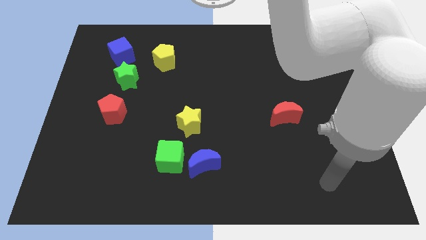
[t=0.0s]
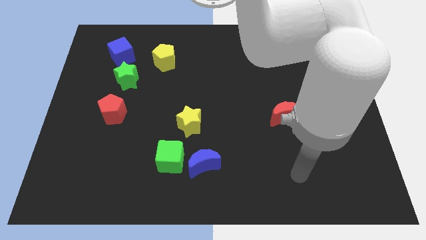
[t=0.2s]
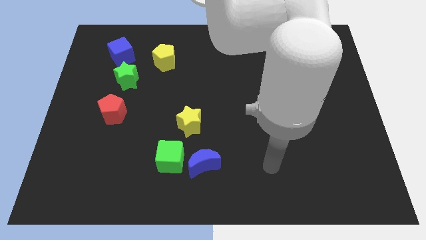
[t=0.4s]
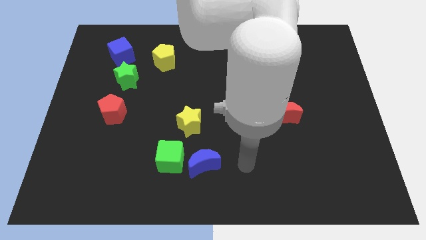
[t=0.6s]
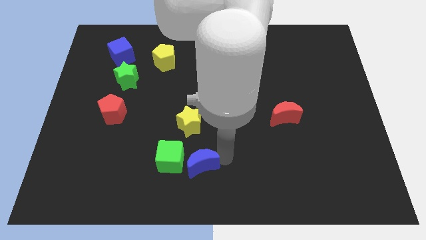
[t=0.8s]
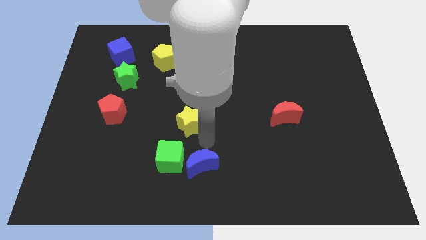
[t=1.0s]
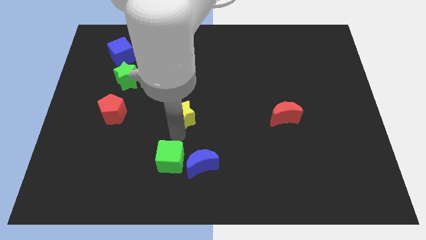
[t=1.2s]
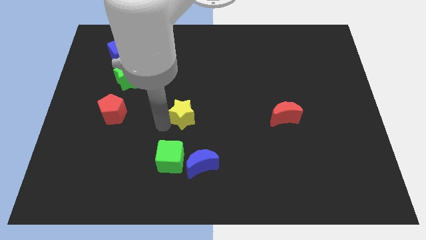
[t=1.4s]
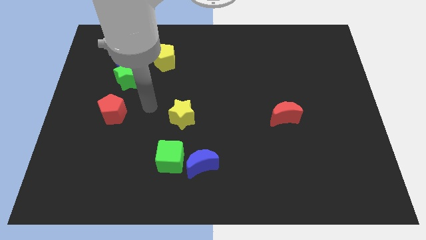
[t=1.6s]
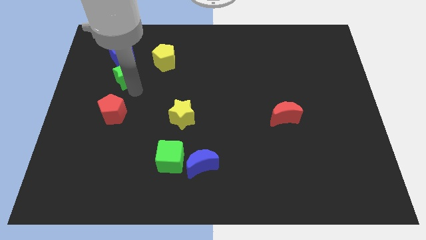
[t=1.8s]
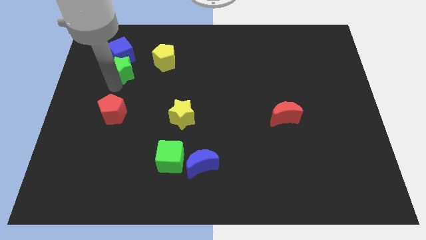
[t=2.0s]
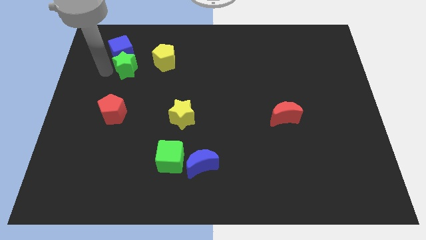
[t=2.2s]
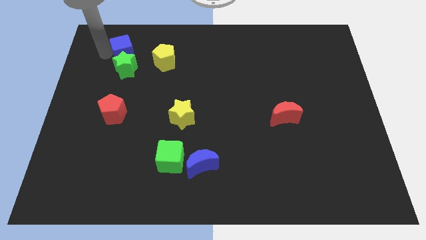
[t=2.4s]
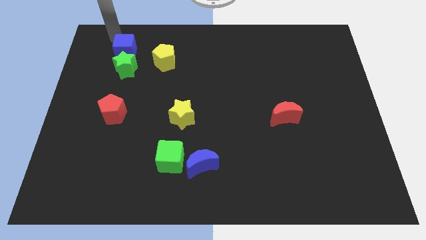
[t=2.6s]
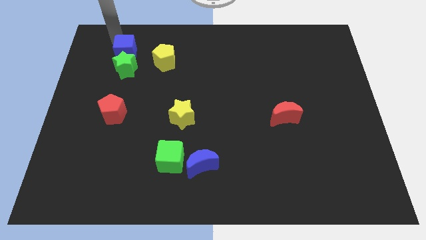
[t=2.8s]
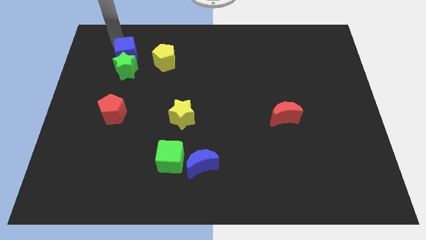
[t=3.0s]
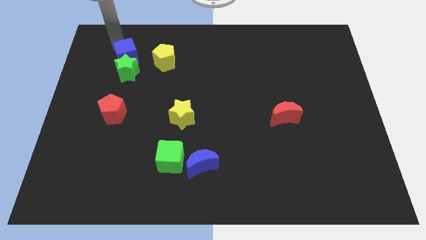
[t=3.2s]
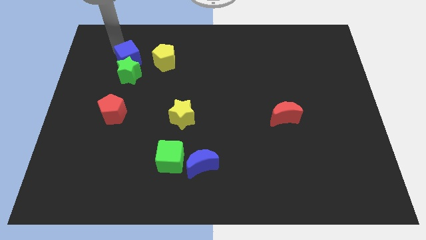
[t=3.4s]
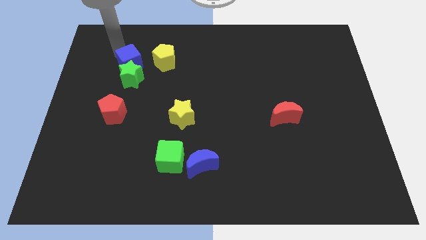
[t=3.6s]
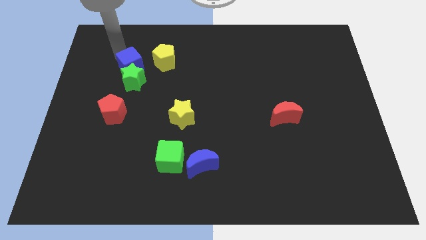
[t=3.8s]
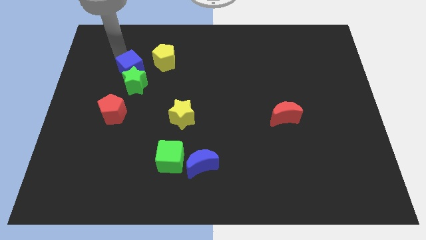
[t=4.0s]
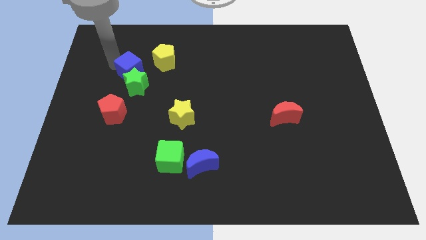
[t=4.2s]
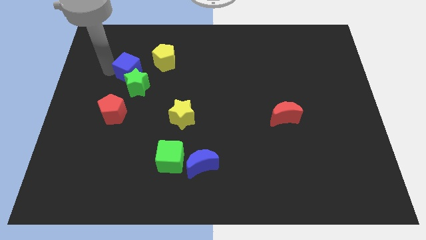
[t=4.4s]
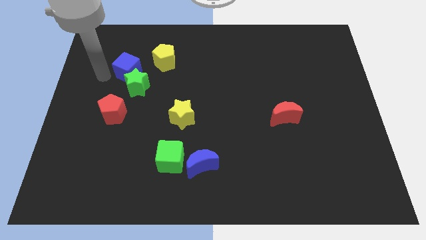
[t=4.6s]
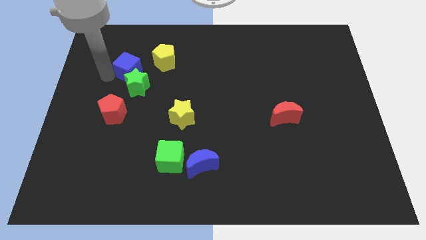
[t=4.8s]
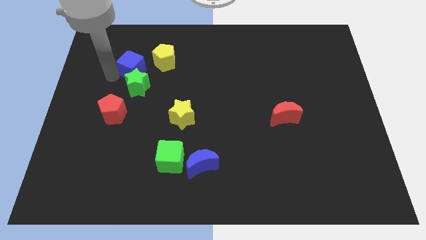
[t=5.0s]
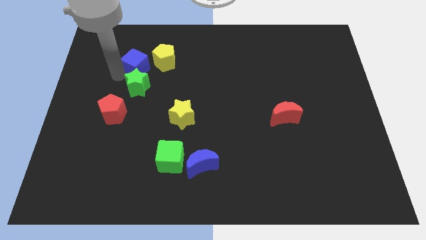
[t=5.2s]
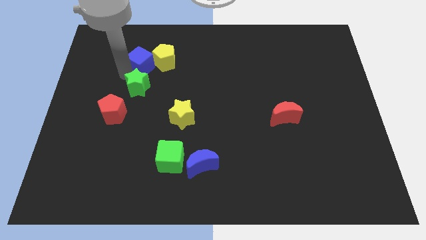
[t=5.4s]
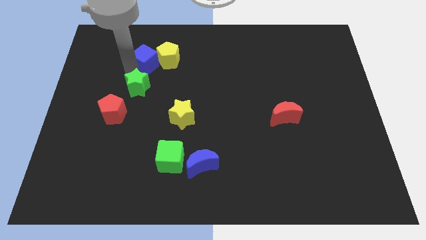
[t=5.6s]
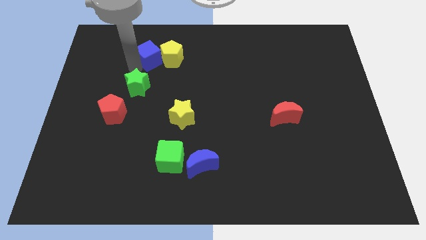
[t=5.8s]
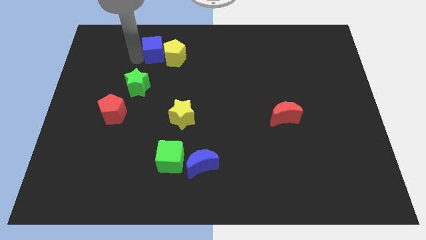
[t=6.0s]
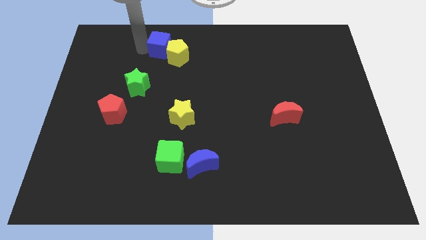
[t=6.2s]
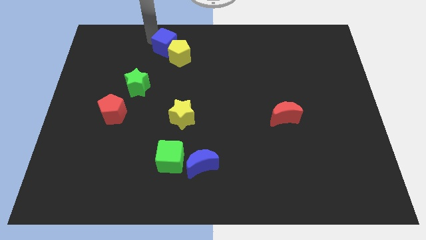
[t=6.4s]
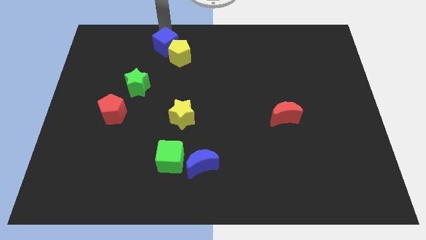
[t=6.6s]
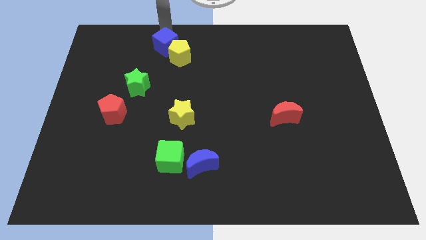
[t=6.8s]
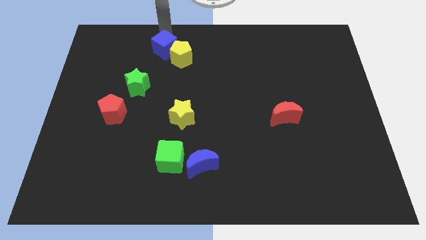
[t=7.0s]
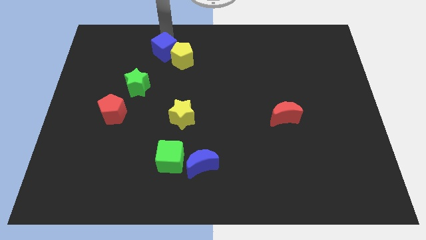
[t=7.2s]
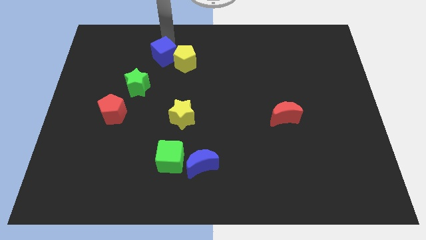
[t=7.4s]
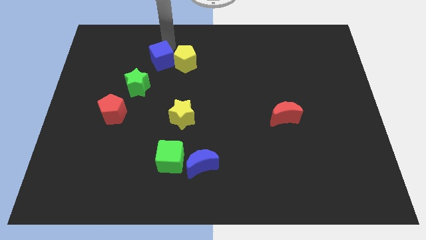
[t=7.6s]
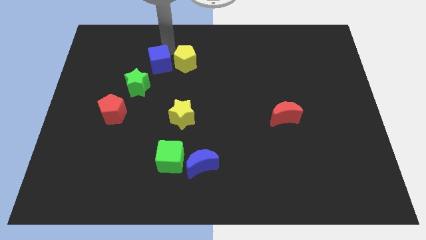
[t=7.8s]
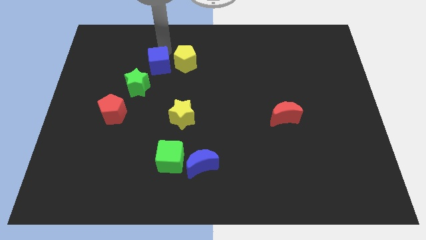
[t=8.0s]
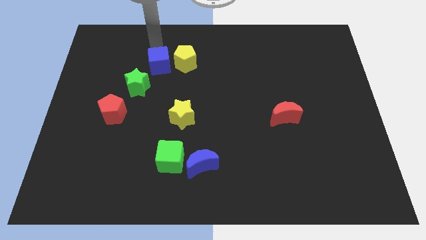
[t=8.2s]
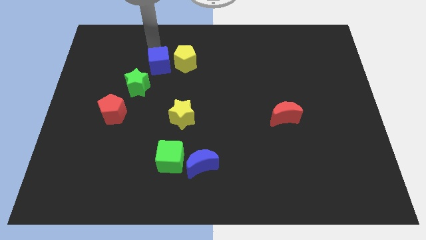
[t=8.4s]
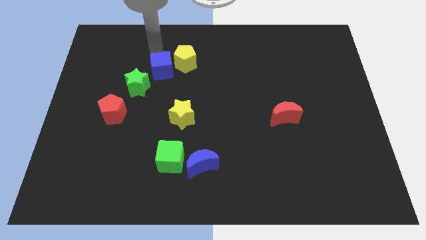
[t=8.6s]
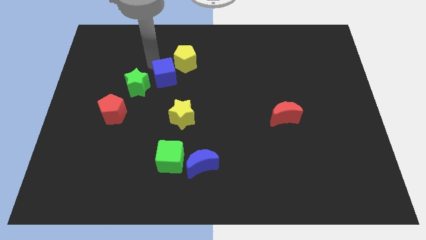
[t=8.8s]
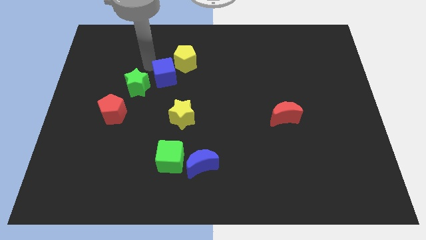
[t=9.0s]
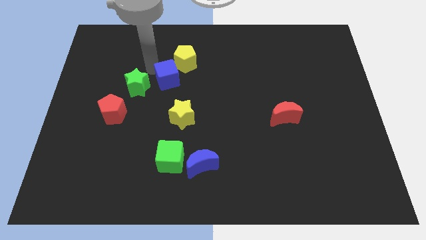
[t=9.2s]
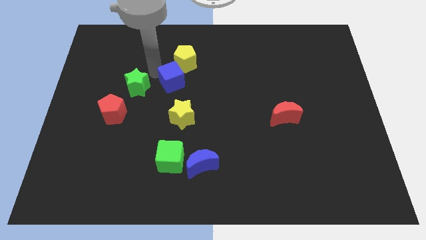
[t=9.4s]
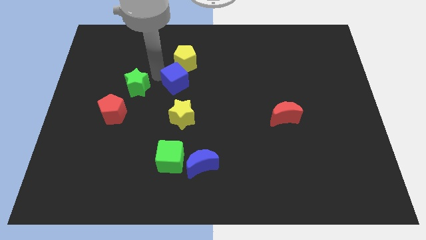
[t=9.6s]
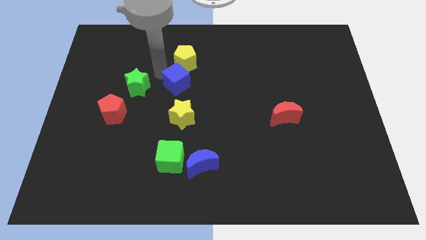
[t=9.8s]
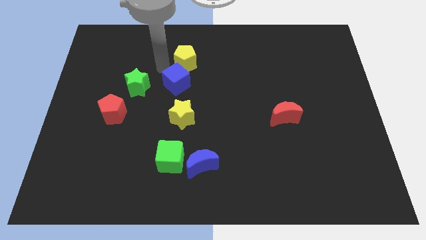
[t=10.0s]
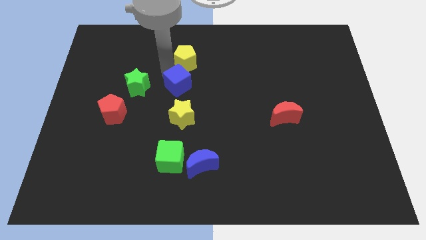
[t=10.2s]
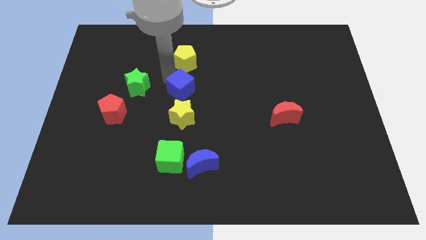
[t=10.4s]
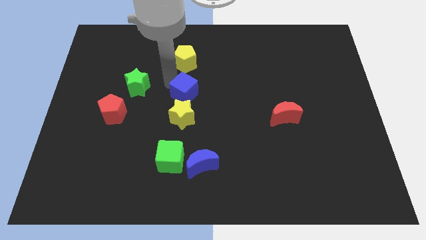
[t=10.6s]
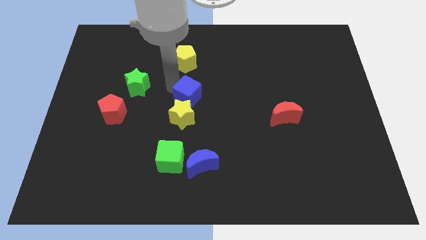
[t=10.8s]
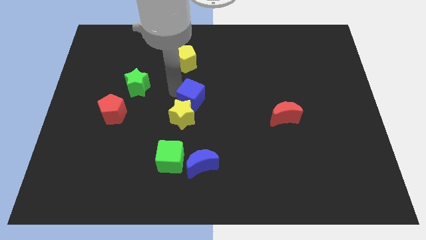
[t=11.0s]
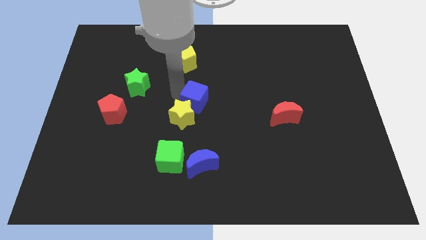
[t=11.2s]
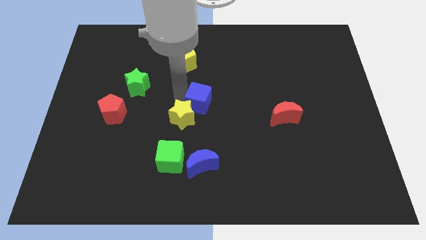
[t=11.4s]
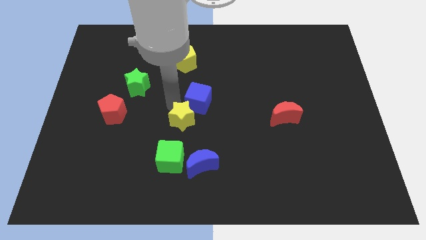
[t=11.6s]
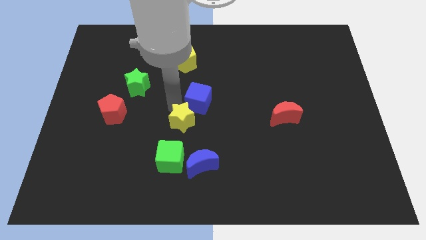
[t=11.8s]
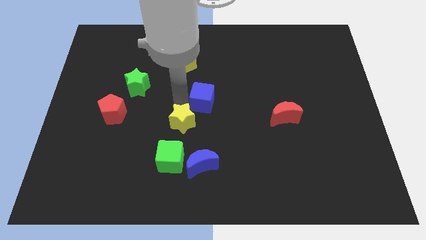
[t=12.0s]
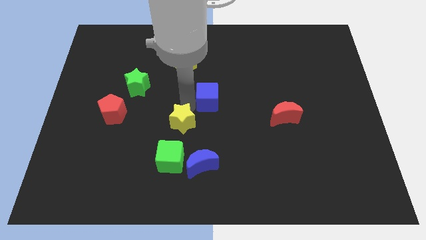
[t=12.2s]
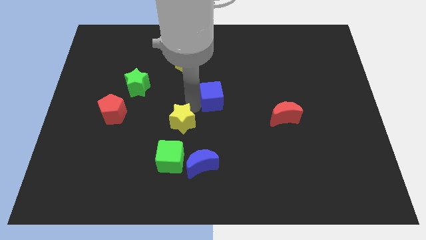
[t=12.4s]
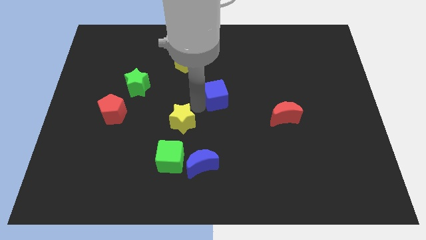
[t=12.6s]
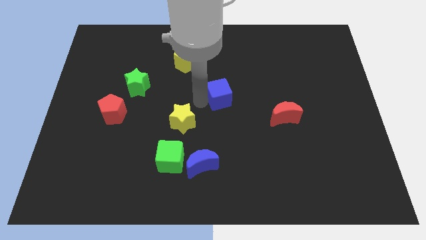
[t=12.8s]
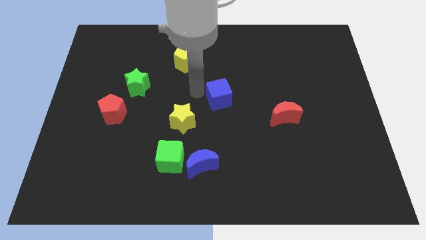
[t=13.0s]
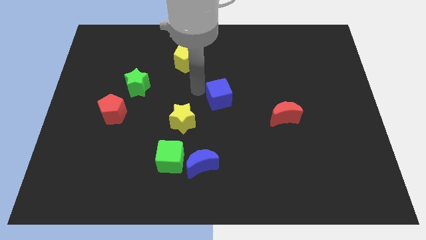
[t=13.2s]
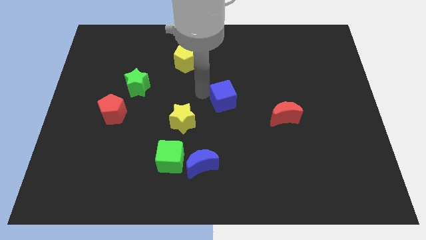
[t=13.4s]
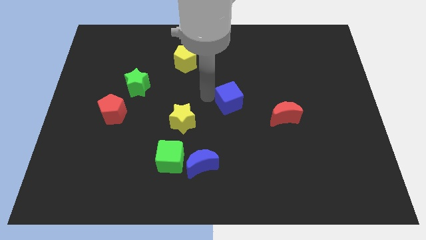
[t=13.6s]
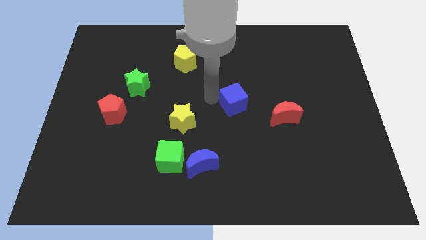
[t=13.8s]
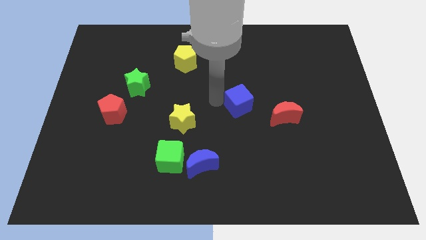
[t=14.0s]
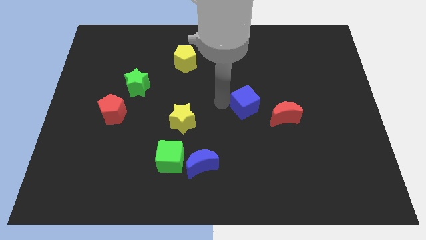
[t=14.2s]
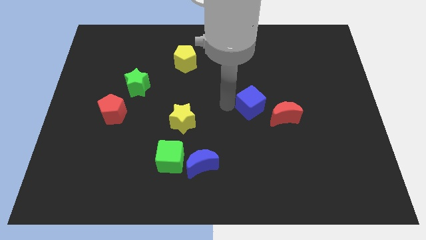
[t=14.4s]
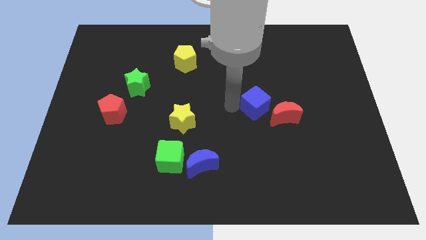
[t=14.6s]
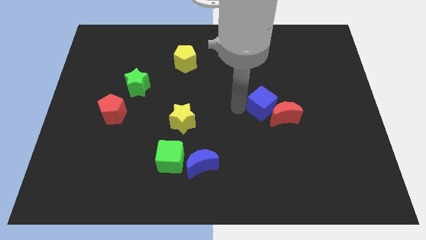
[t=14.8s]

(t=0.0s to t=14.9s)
put the blue cube next to the red moon

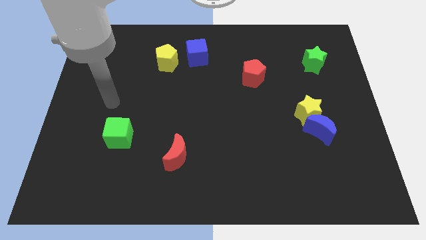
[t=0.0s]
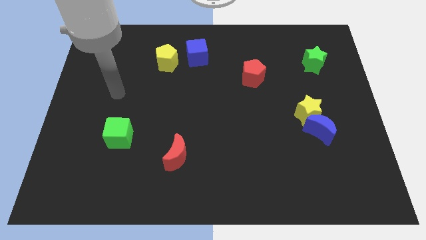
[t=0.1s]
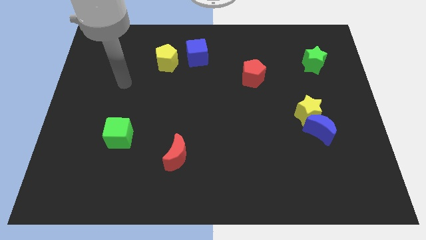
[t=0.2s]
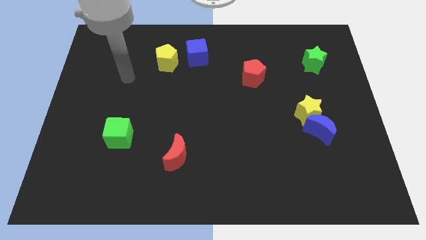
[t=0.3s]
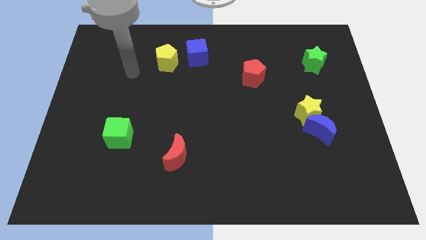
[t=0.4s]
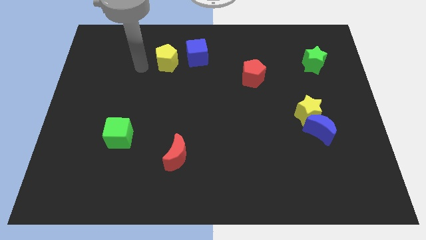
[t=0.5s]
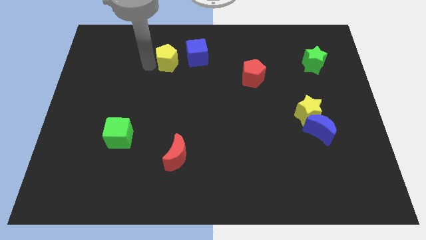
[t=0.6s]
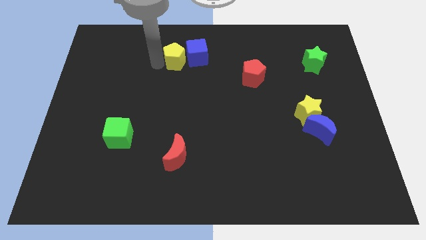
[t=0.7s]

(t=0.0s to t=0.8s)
put the yellow pentagon next to the blue cube
